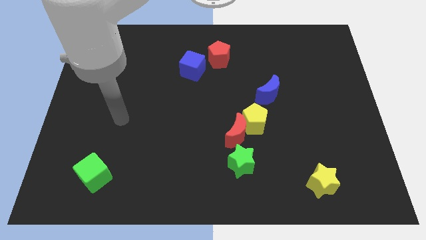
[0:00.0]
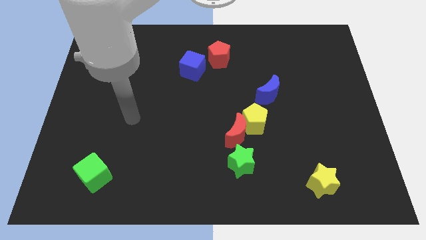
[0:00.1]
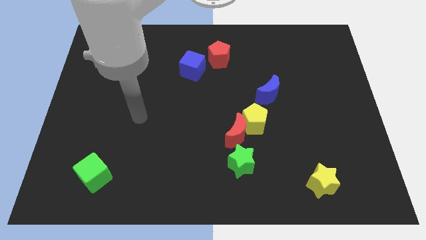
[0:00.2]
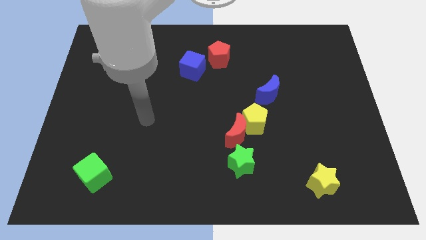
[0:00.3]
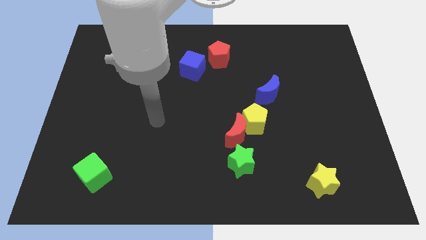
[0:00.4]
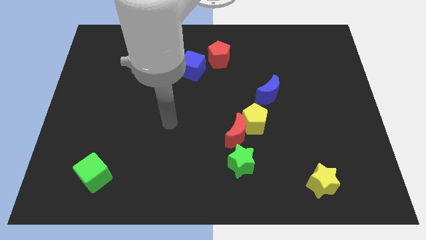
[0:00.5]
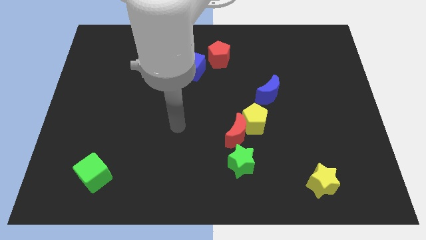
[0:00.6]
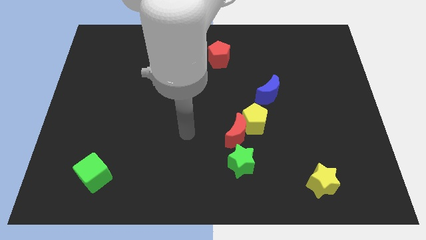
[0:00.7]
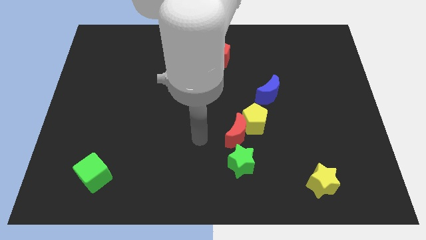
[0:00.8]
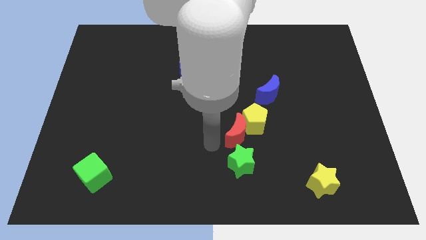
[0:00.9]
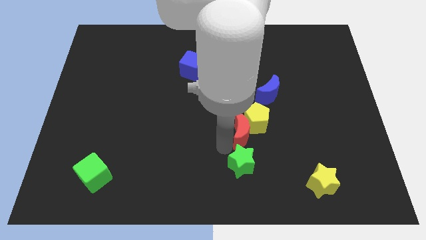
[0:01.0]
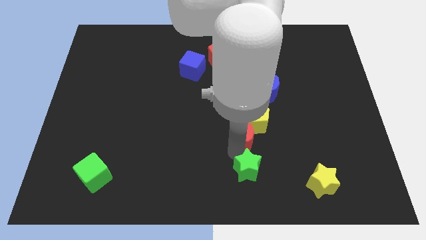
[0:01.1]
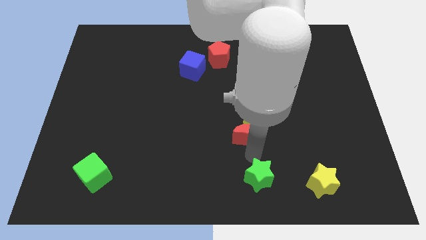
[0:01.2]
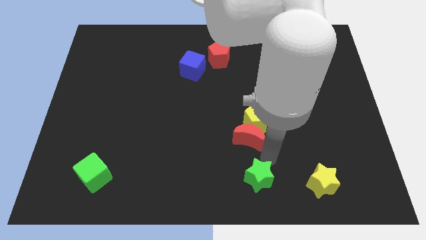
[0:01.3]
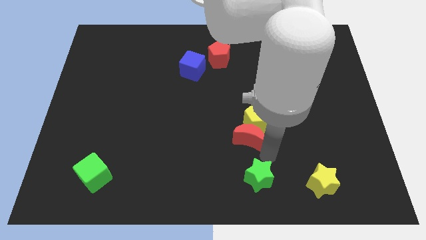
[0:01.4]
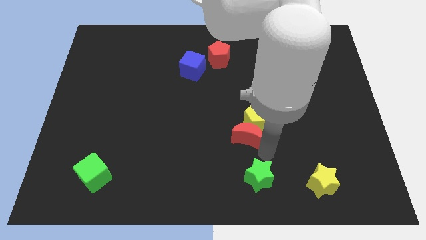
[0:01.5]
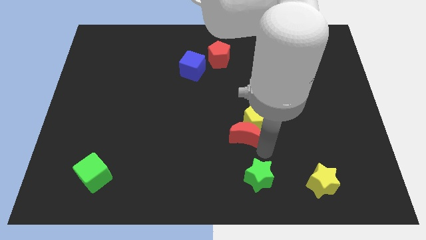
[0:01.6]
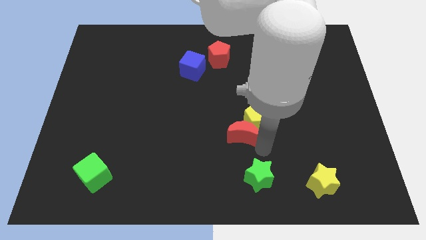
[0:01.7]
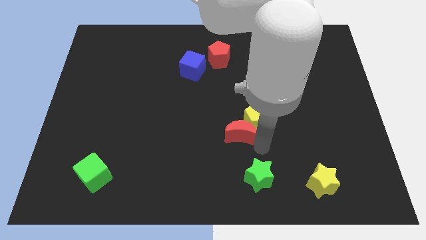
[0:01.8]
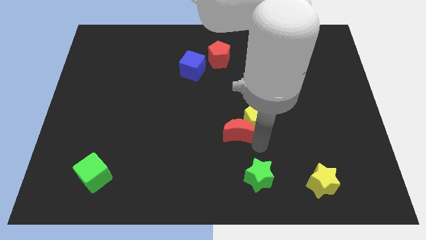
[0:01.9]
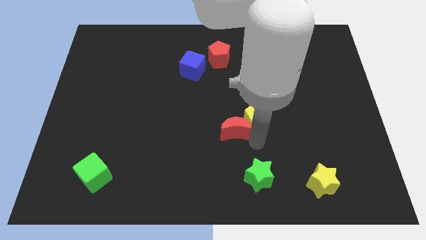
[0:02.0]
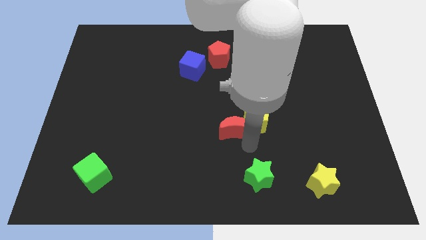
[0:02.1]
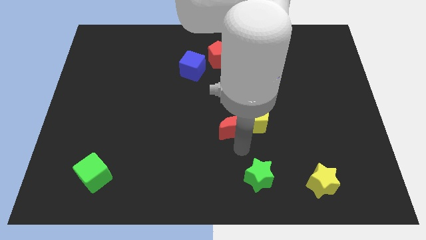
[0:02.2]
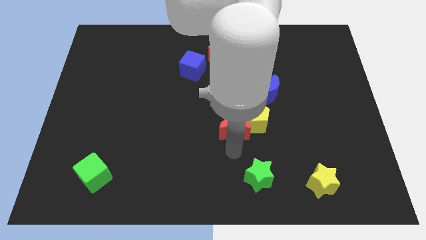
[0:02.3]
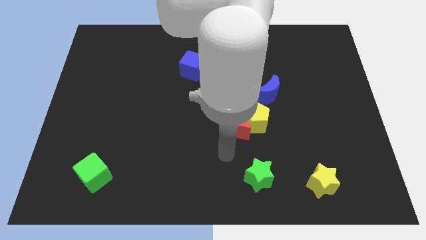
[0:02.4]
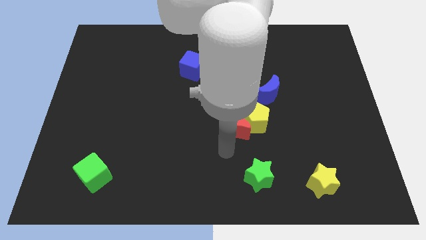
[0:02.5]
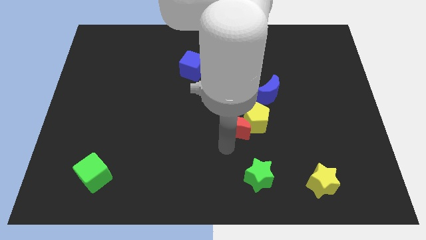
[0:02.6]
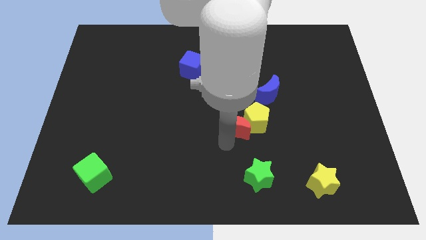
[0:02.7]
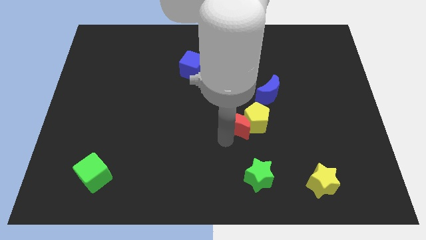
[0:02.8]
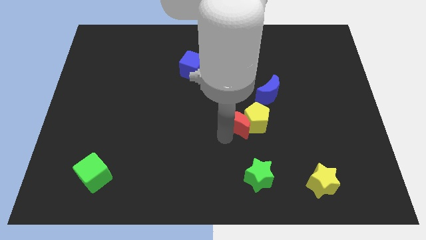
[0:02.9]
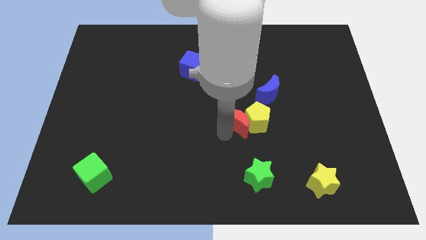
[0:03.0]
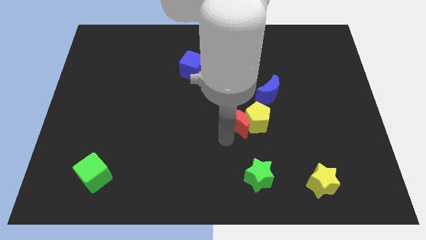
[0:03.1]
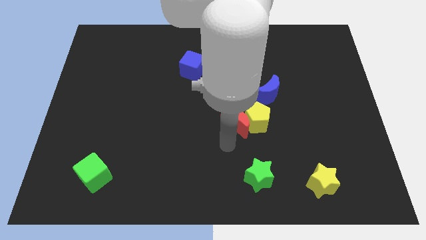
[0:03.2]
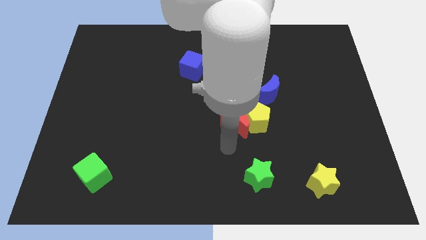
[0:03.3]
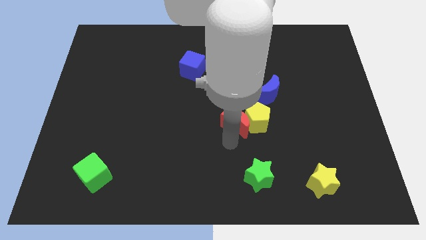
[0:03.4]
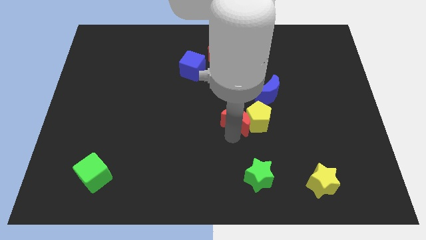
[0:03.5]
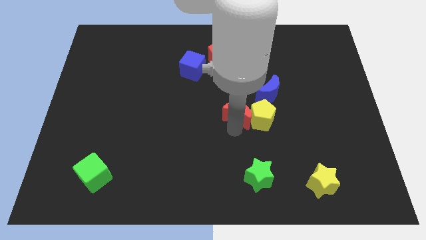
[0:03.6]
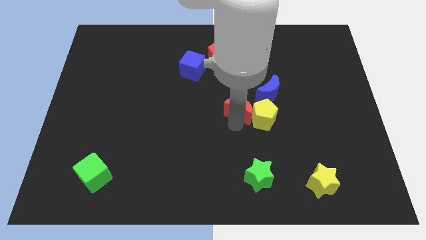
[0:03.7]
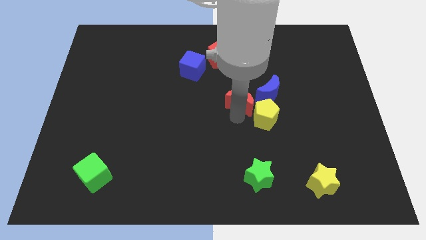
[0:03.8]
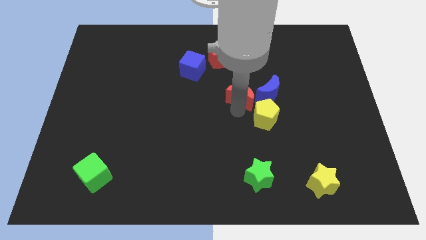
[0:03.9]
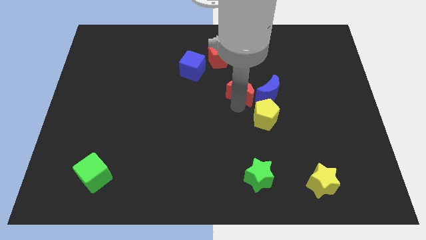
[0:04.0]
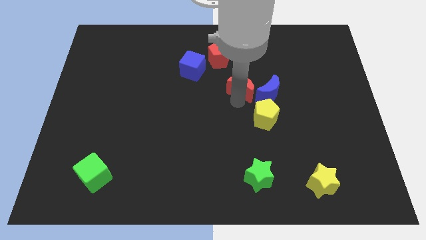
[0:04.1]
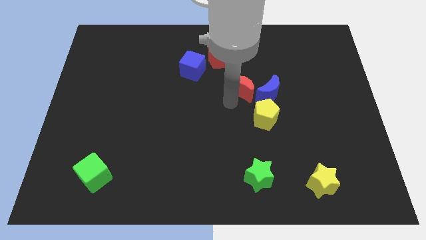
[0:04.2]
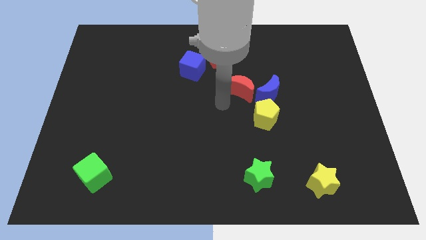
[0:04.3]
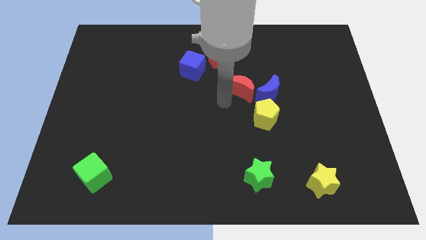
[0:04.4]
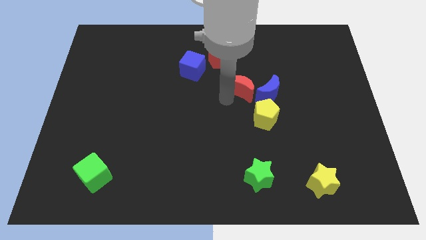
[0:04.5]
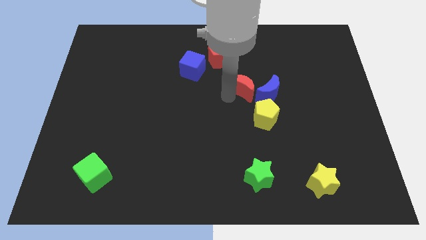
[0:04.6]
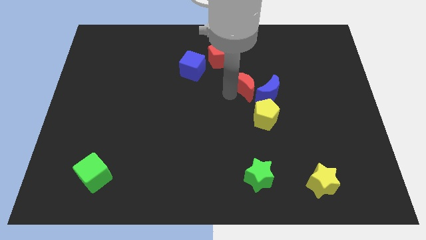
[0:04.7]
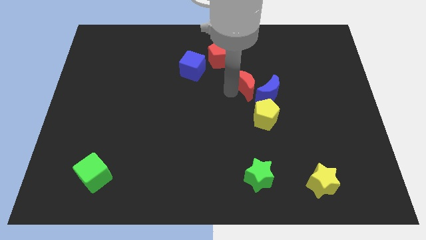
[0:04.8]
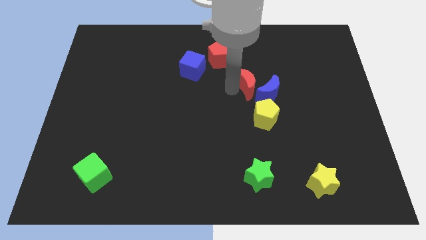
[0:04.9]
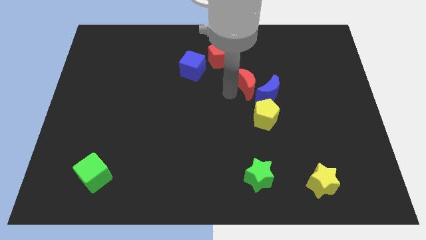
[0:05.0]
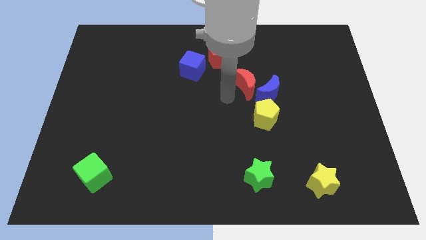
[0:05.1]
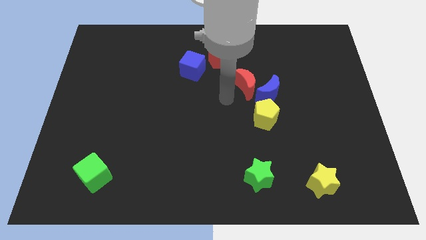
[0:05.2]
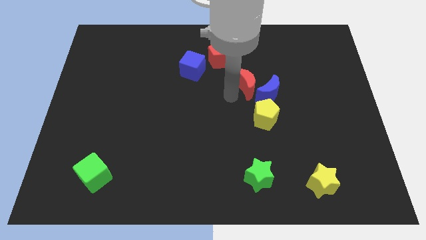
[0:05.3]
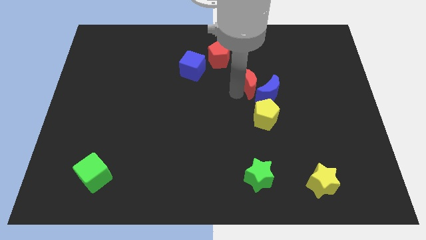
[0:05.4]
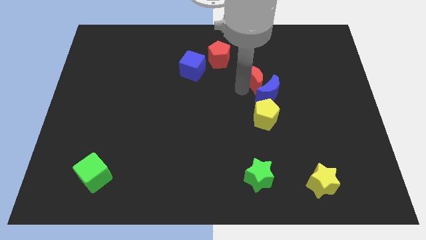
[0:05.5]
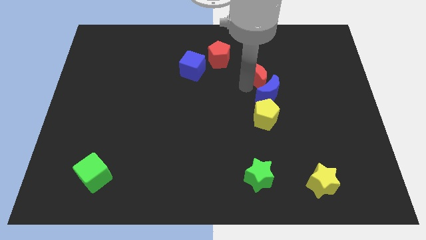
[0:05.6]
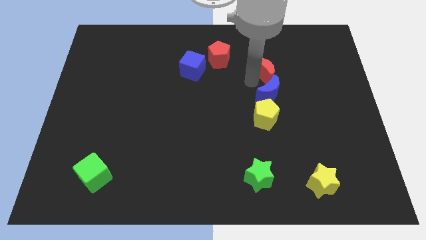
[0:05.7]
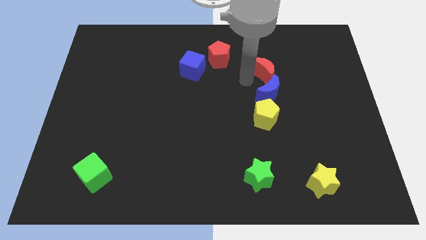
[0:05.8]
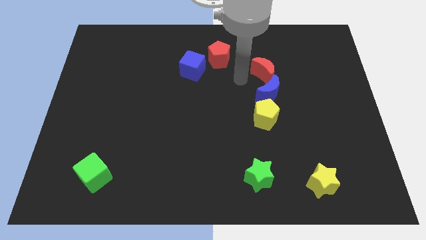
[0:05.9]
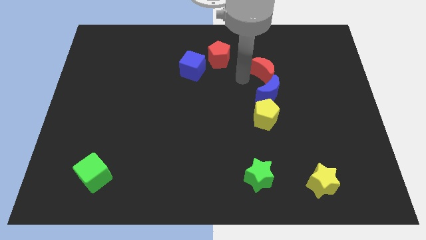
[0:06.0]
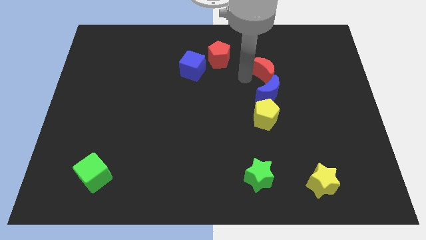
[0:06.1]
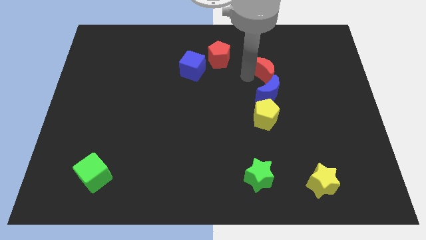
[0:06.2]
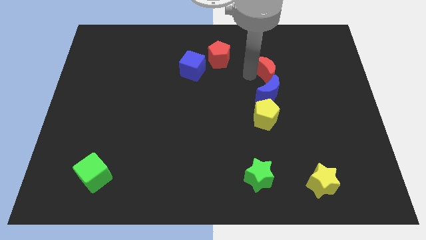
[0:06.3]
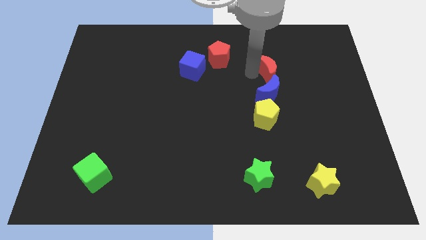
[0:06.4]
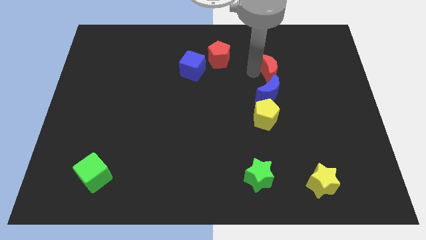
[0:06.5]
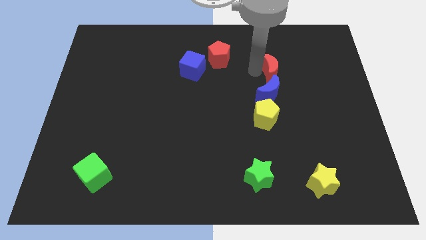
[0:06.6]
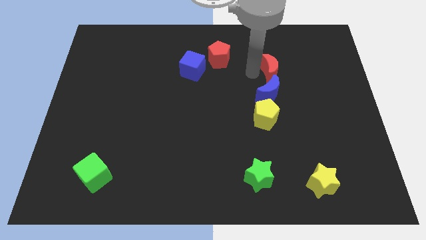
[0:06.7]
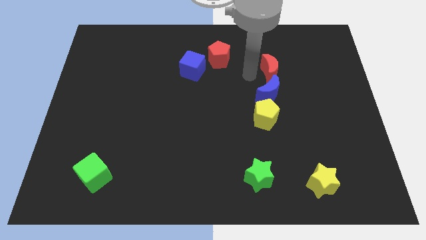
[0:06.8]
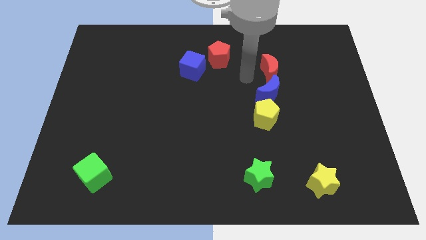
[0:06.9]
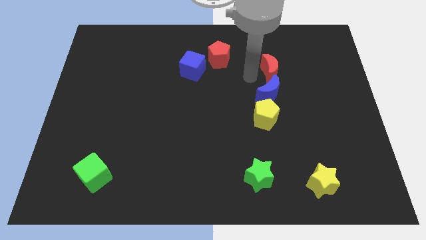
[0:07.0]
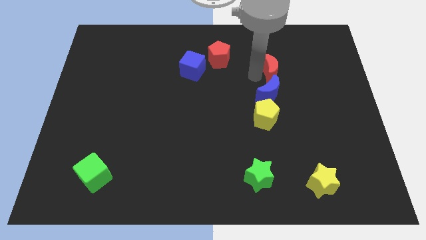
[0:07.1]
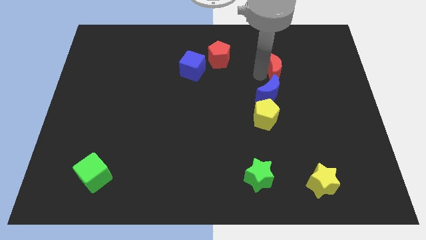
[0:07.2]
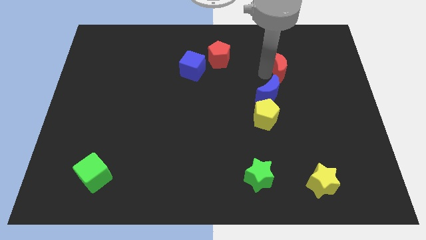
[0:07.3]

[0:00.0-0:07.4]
move the red moon diagonally up and right

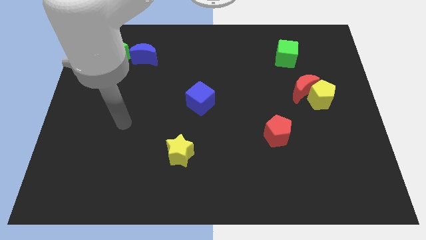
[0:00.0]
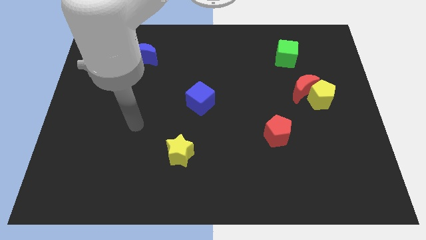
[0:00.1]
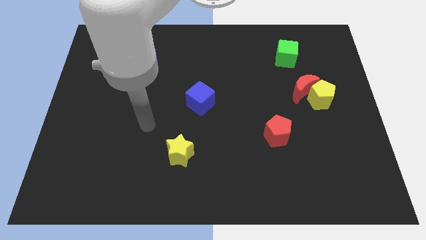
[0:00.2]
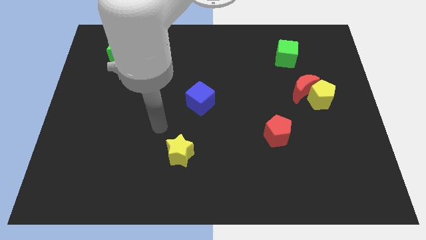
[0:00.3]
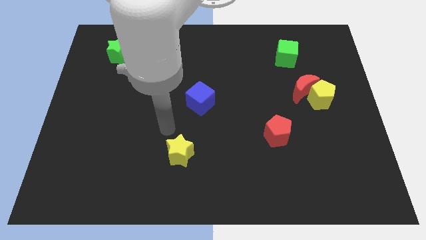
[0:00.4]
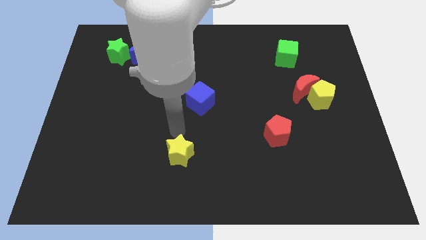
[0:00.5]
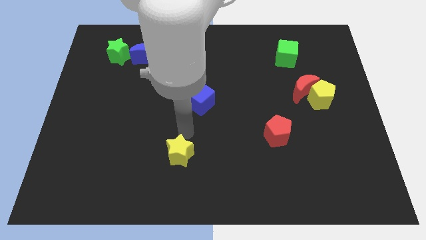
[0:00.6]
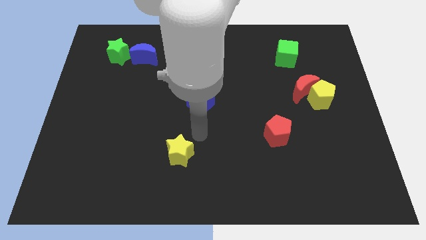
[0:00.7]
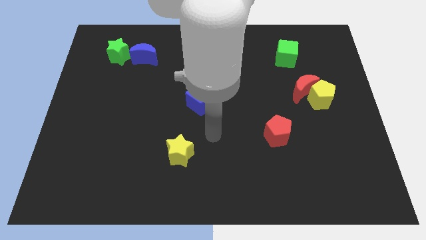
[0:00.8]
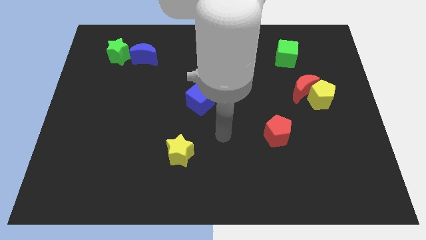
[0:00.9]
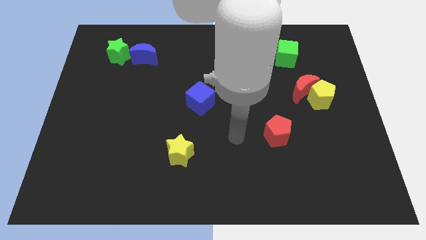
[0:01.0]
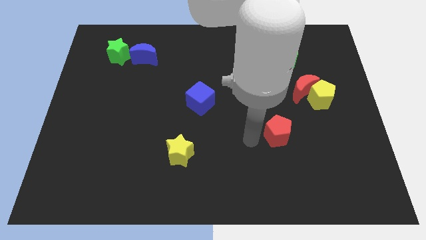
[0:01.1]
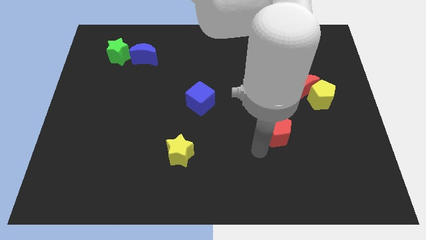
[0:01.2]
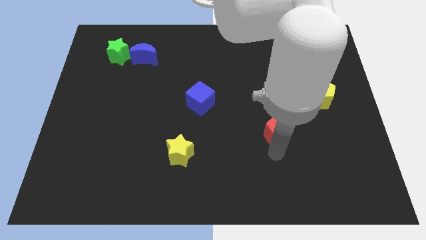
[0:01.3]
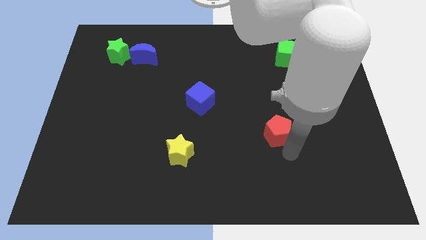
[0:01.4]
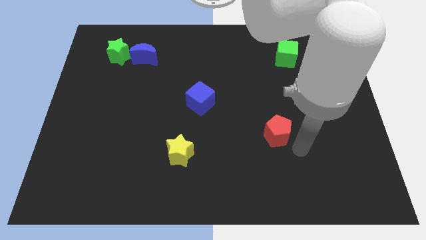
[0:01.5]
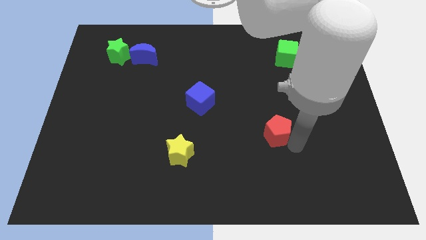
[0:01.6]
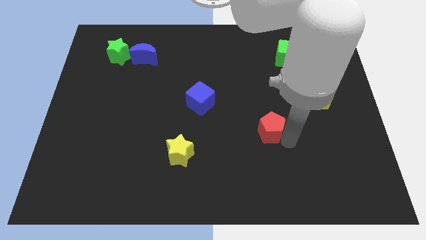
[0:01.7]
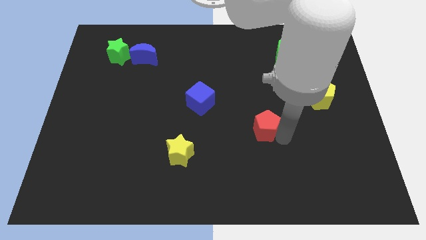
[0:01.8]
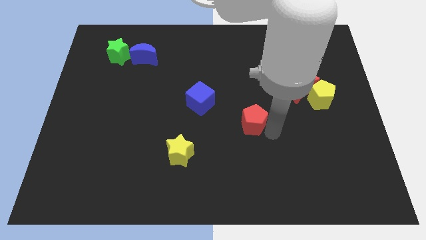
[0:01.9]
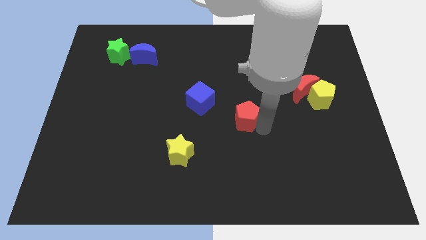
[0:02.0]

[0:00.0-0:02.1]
slide the red pentagon up and to the left a bit
